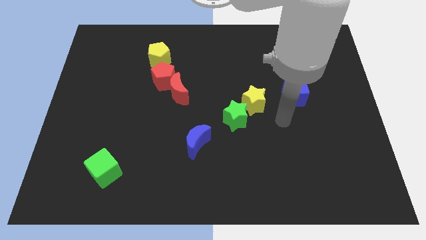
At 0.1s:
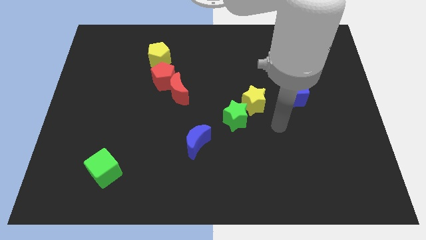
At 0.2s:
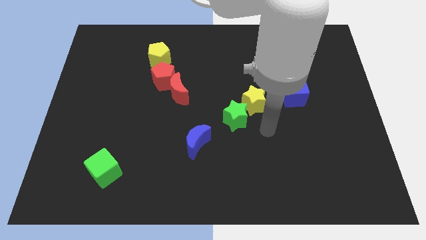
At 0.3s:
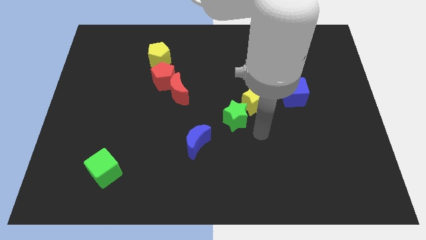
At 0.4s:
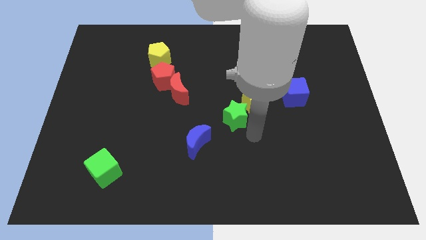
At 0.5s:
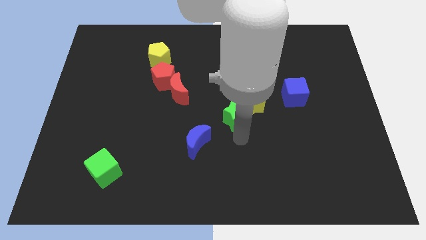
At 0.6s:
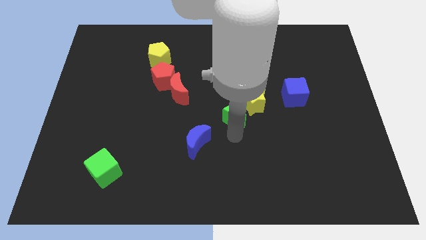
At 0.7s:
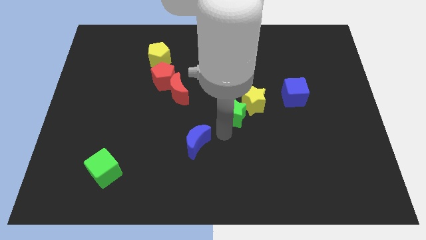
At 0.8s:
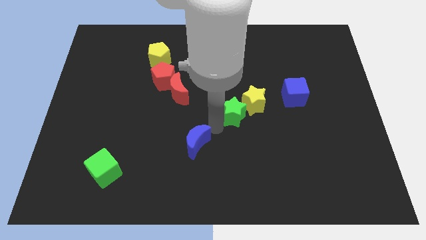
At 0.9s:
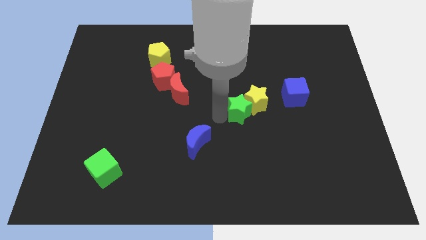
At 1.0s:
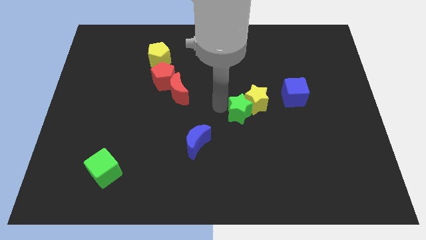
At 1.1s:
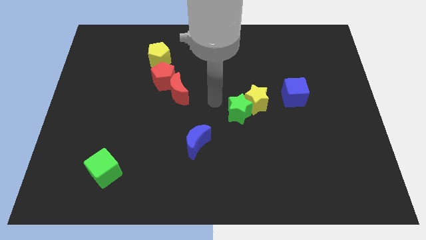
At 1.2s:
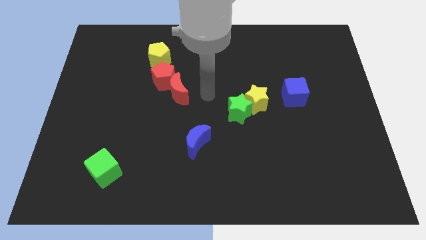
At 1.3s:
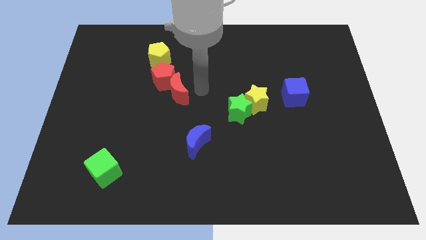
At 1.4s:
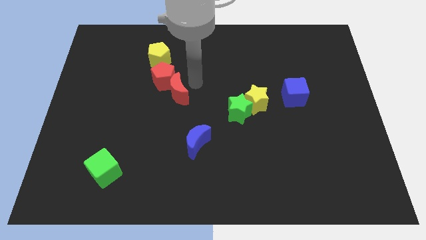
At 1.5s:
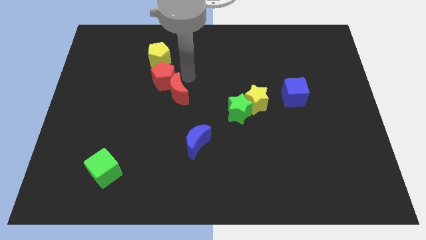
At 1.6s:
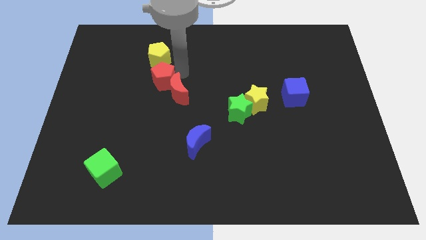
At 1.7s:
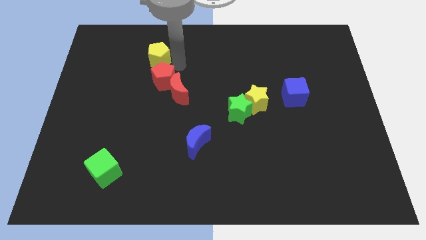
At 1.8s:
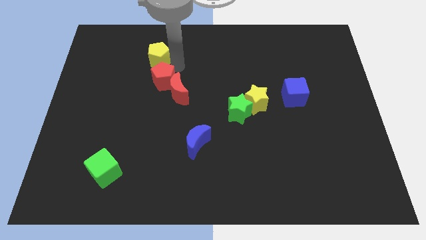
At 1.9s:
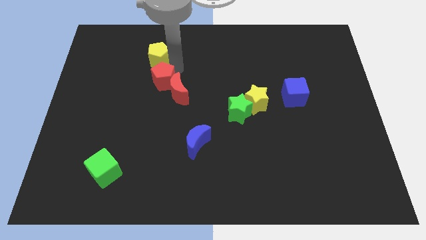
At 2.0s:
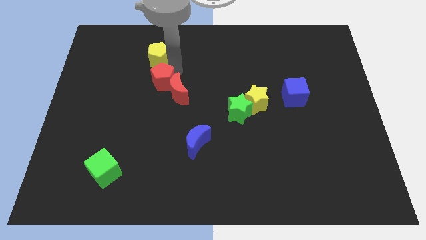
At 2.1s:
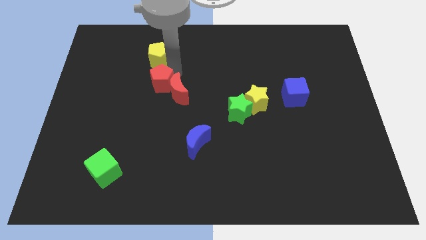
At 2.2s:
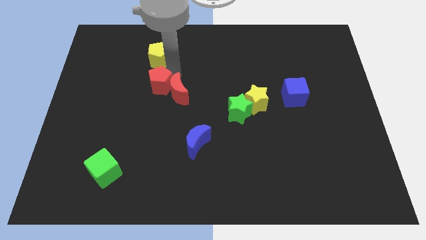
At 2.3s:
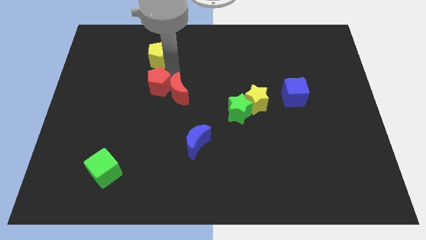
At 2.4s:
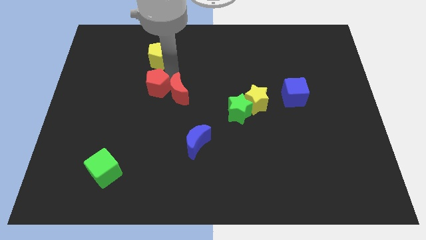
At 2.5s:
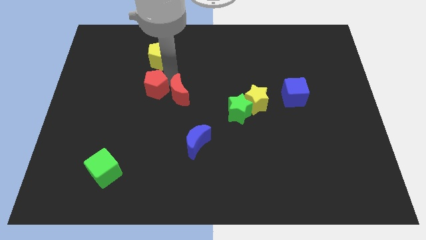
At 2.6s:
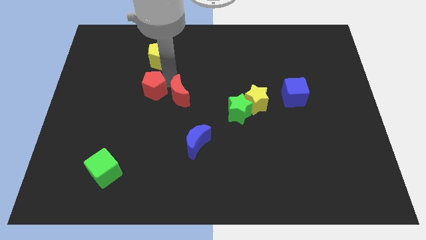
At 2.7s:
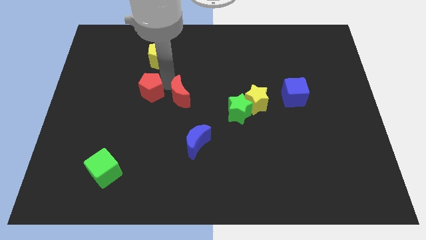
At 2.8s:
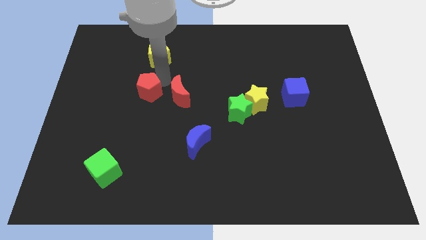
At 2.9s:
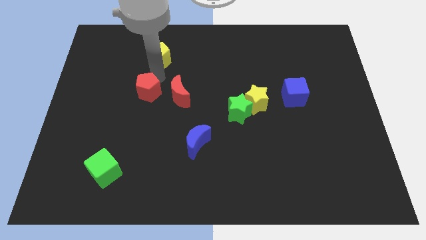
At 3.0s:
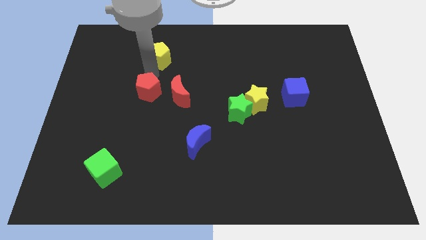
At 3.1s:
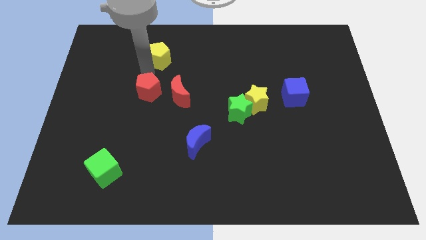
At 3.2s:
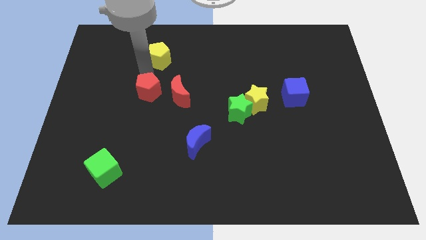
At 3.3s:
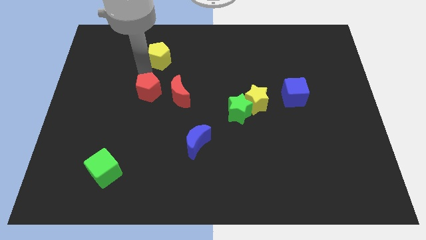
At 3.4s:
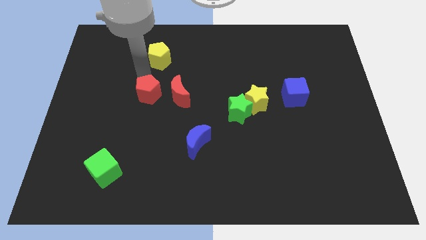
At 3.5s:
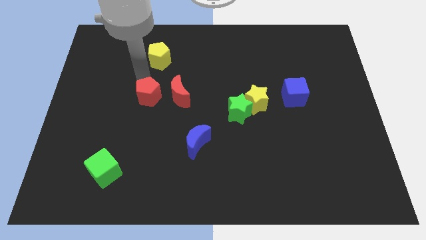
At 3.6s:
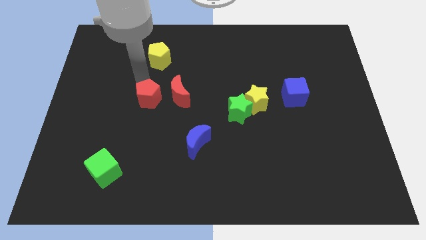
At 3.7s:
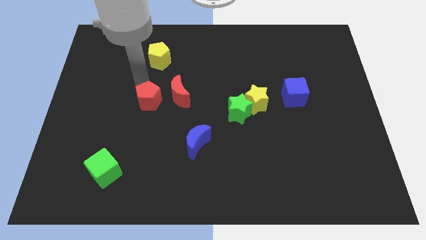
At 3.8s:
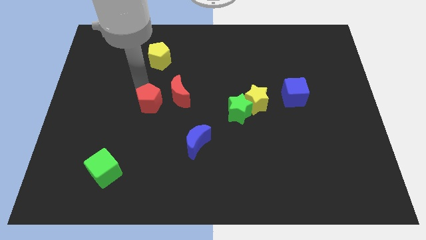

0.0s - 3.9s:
slide the red pentagon a bit downwards

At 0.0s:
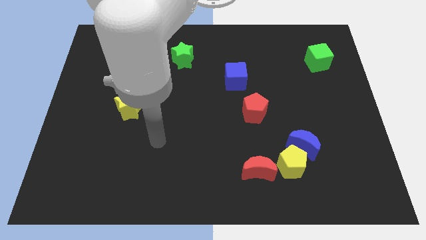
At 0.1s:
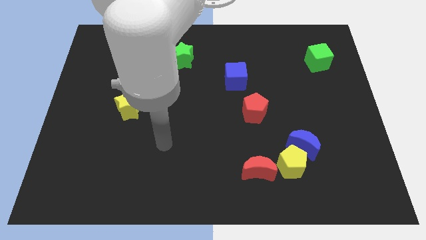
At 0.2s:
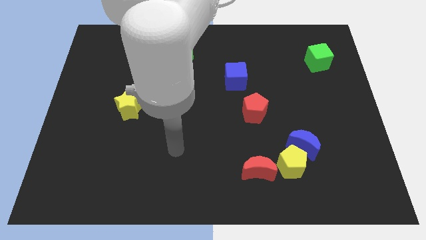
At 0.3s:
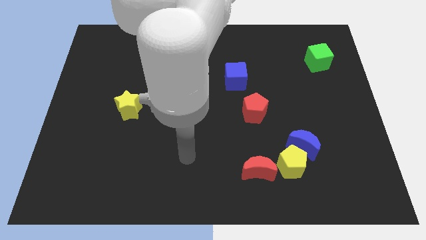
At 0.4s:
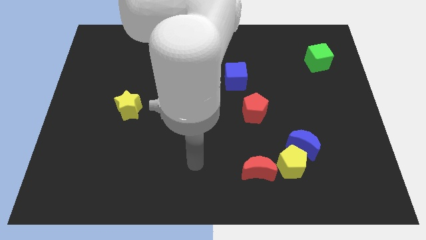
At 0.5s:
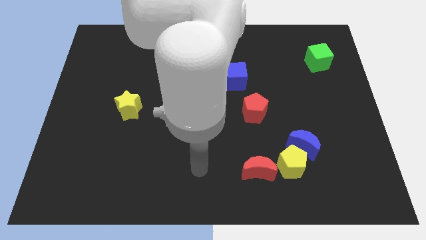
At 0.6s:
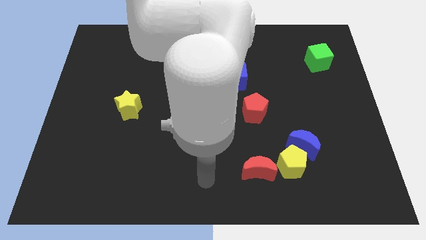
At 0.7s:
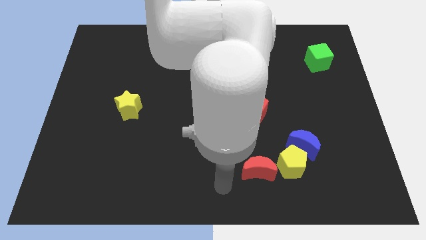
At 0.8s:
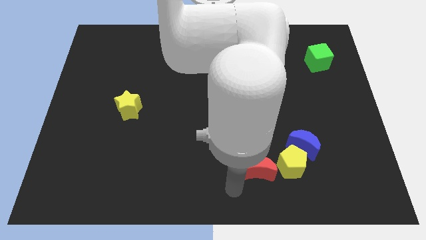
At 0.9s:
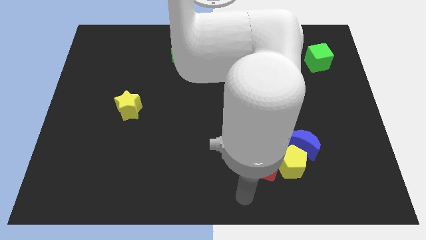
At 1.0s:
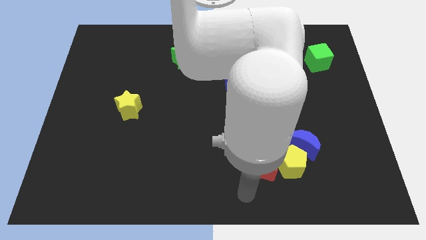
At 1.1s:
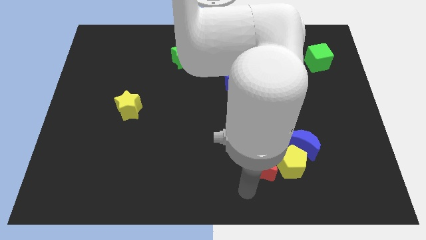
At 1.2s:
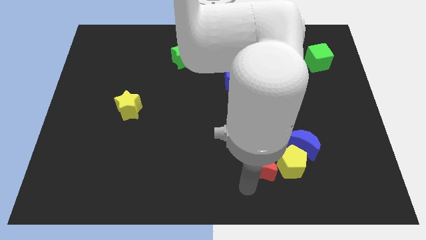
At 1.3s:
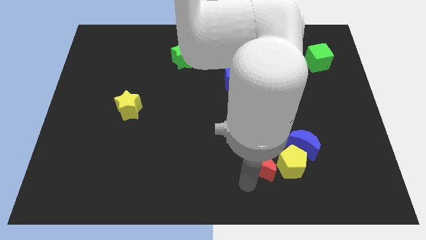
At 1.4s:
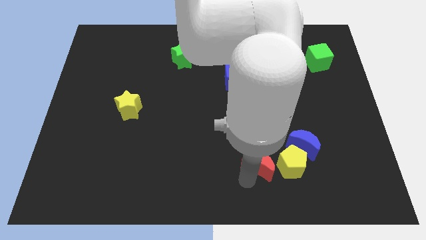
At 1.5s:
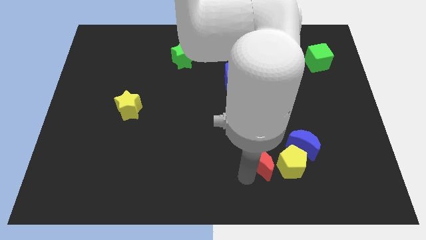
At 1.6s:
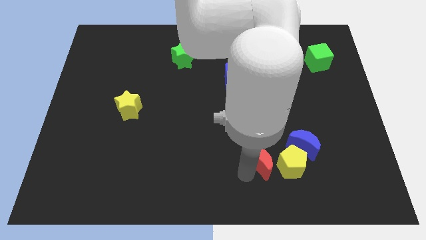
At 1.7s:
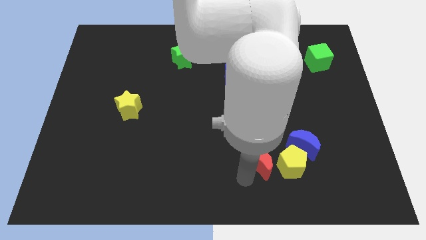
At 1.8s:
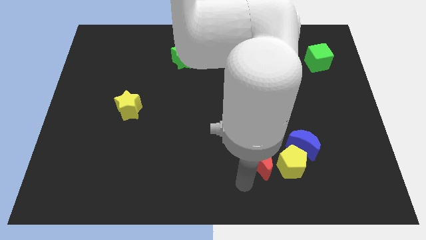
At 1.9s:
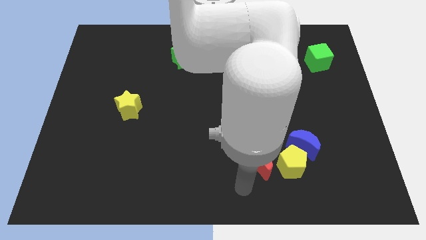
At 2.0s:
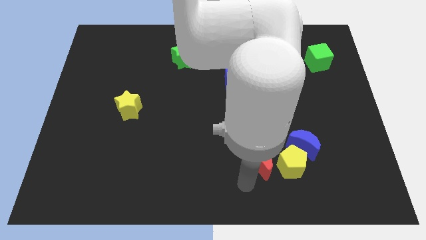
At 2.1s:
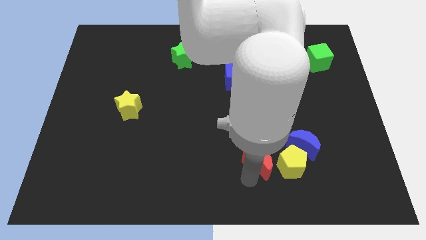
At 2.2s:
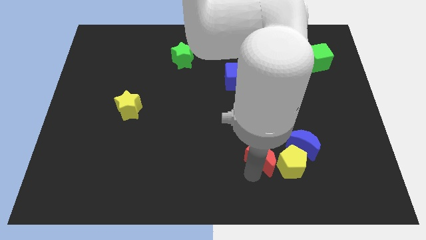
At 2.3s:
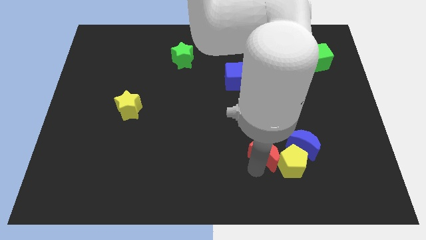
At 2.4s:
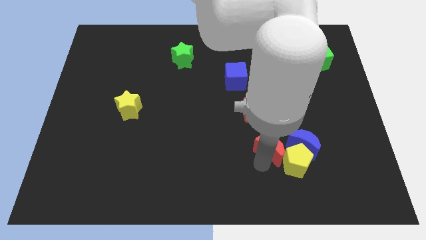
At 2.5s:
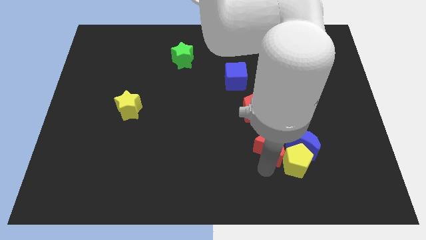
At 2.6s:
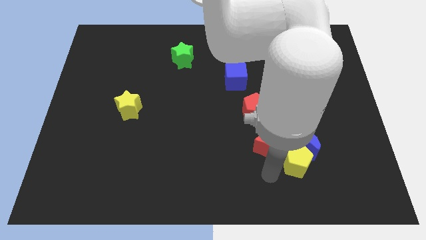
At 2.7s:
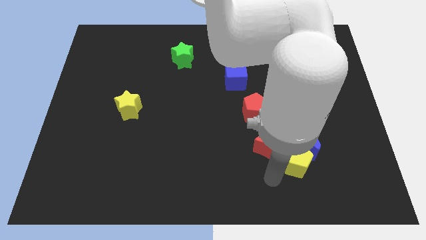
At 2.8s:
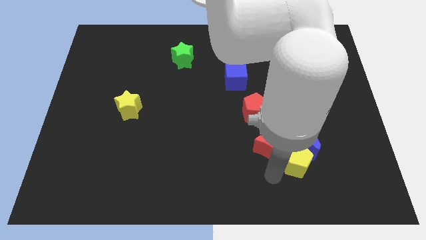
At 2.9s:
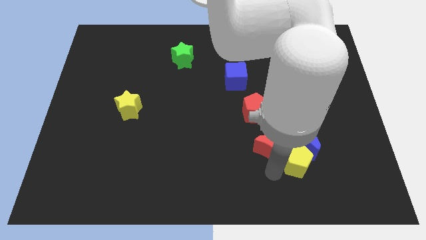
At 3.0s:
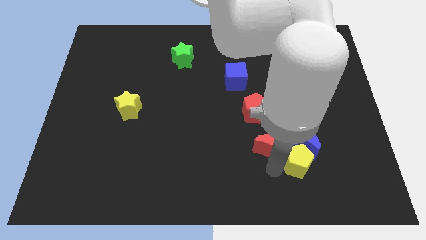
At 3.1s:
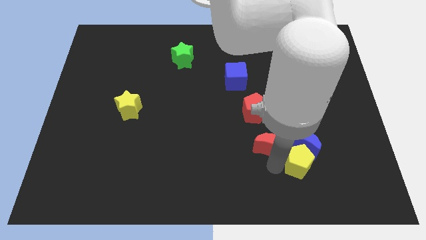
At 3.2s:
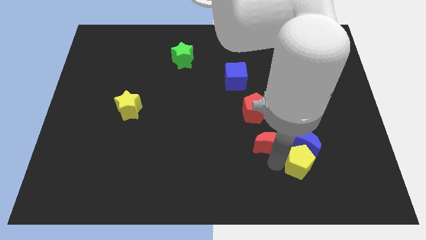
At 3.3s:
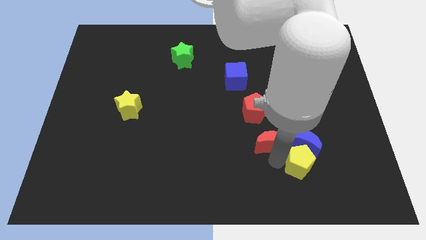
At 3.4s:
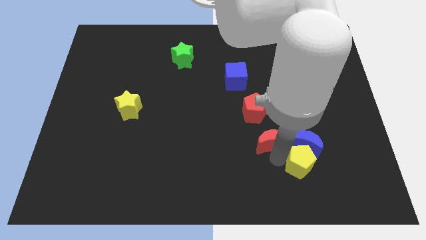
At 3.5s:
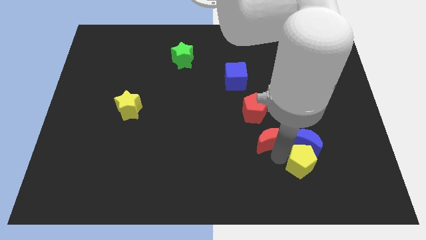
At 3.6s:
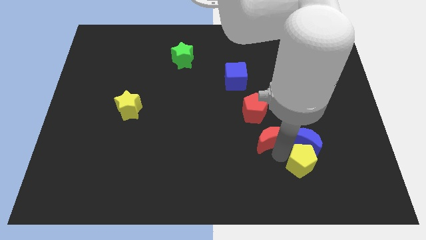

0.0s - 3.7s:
slightly move the red moon up

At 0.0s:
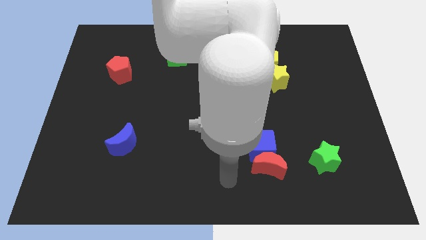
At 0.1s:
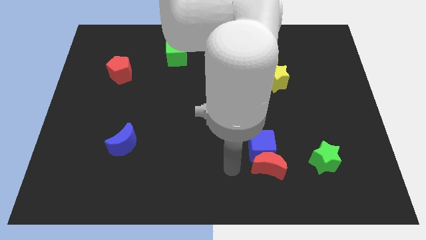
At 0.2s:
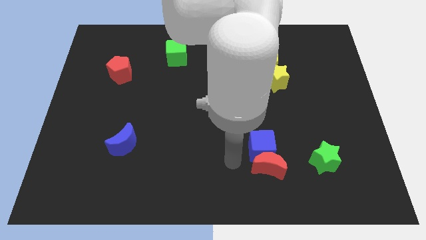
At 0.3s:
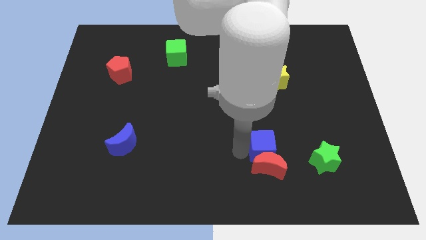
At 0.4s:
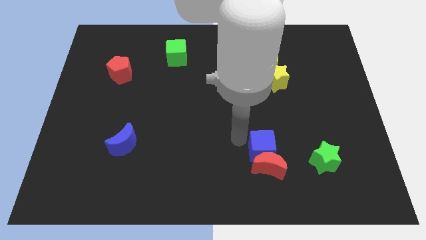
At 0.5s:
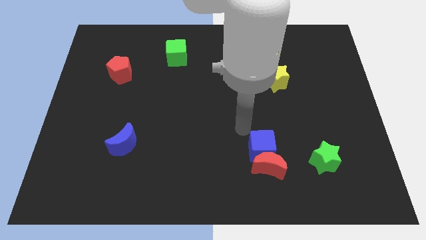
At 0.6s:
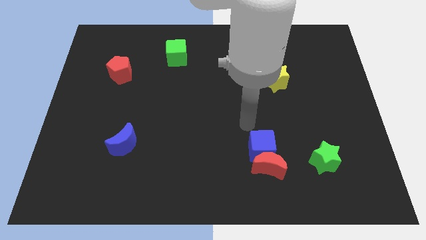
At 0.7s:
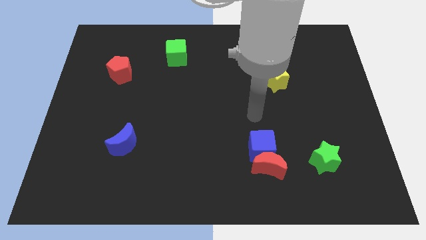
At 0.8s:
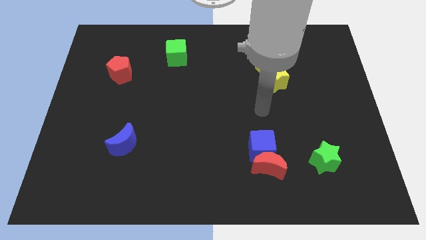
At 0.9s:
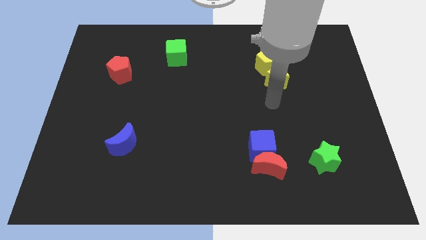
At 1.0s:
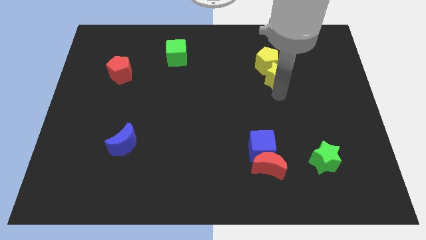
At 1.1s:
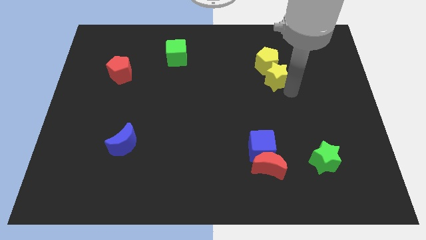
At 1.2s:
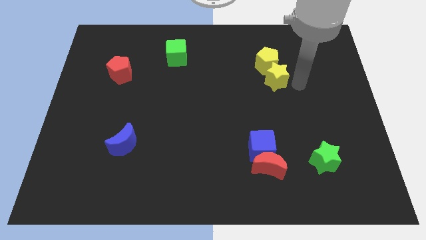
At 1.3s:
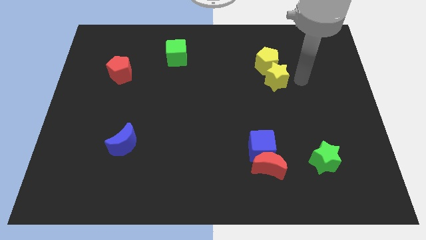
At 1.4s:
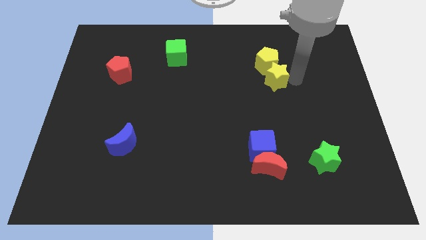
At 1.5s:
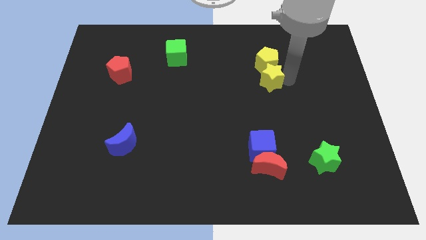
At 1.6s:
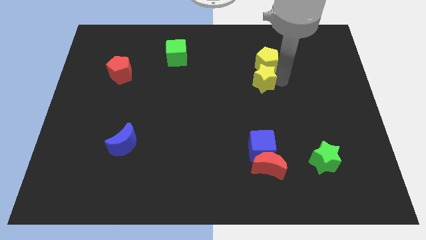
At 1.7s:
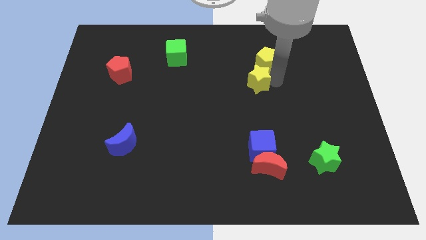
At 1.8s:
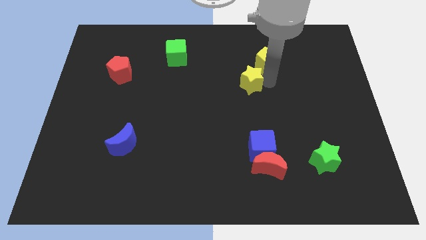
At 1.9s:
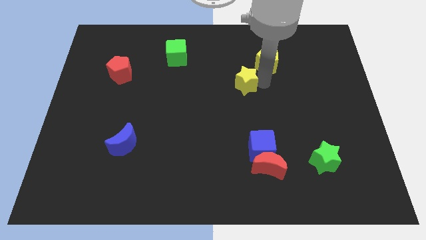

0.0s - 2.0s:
slightly move the yellow star to the left
